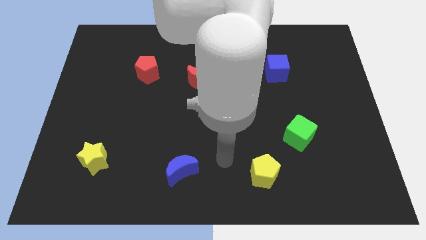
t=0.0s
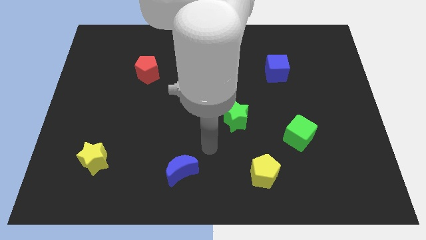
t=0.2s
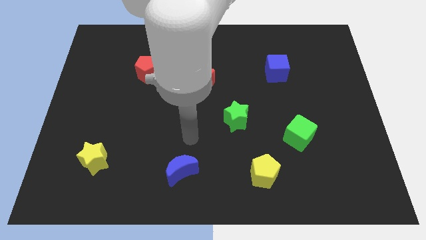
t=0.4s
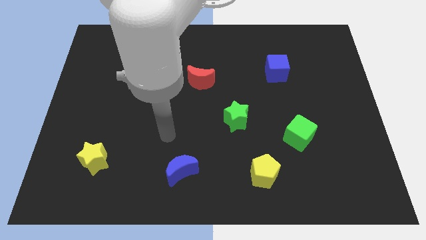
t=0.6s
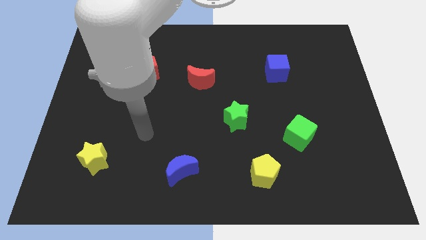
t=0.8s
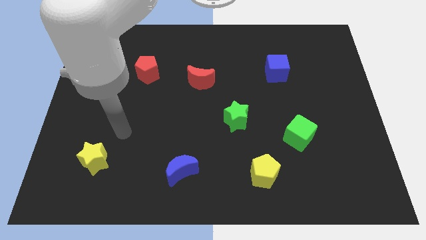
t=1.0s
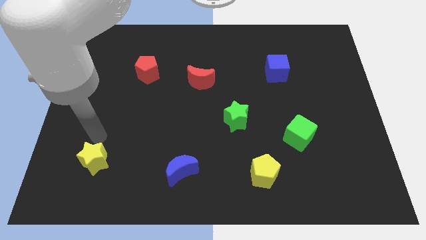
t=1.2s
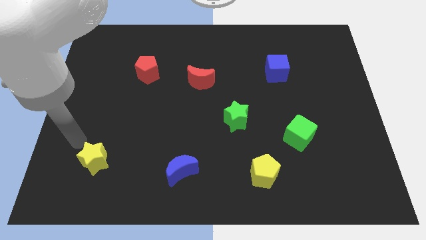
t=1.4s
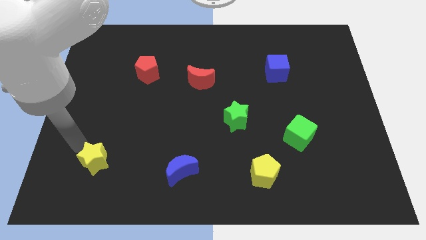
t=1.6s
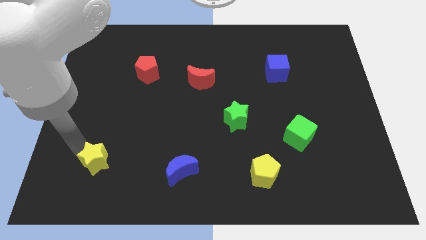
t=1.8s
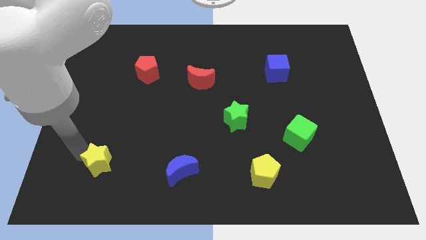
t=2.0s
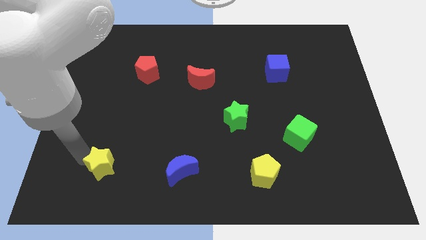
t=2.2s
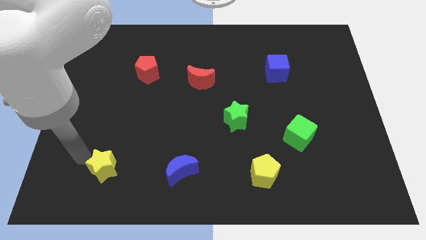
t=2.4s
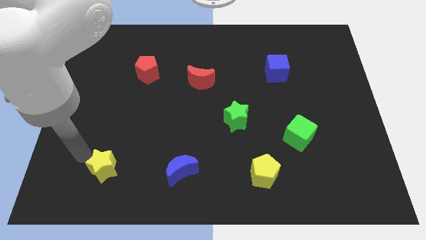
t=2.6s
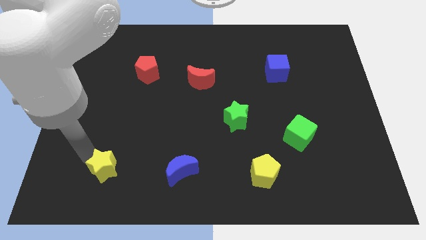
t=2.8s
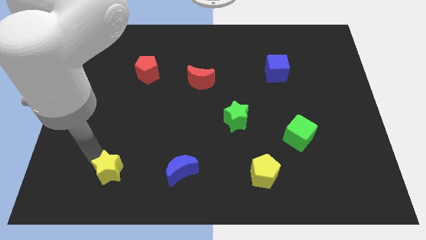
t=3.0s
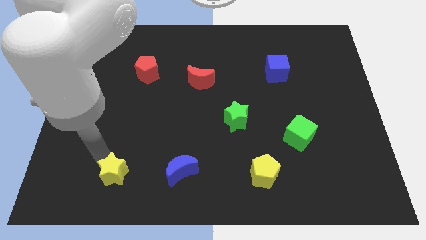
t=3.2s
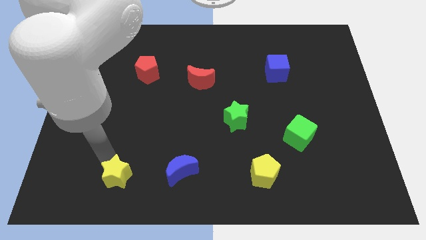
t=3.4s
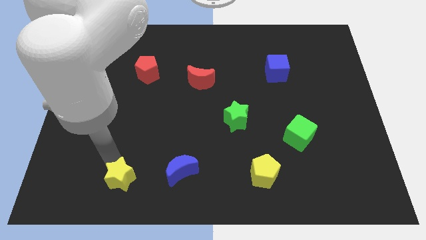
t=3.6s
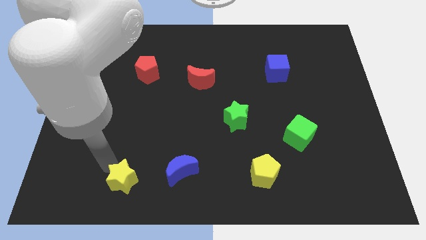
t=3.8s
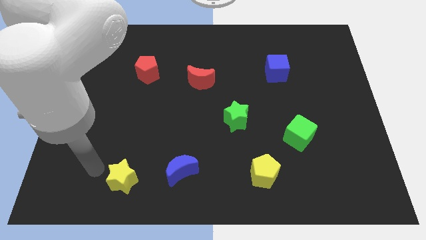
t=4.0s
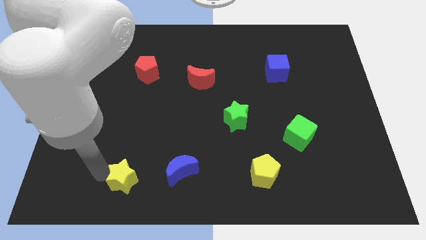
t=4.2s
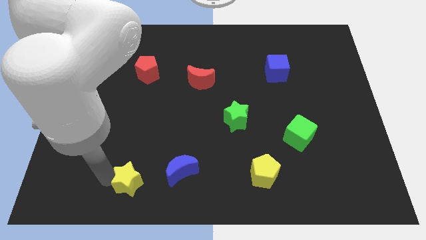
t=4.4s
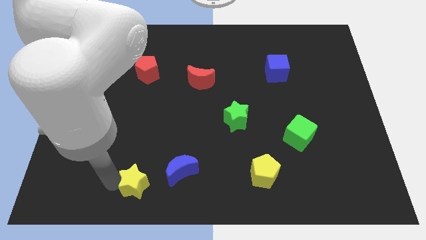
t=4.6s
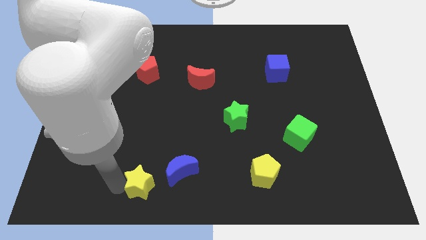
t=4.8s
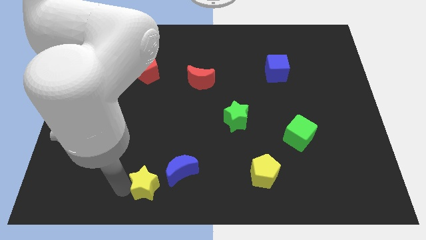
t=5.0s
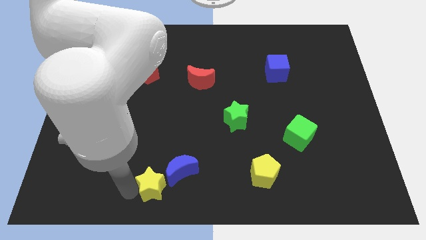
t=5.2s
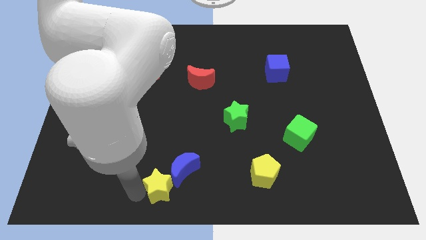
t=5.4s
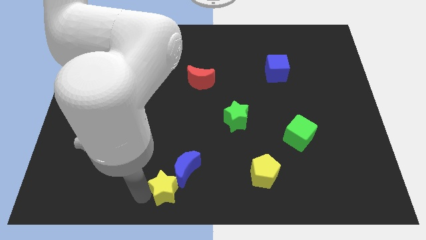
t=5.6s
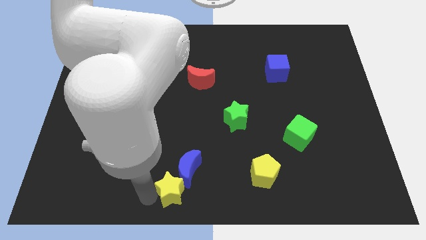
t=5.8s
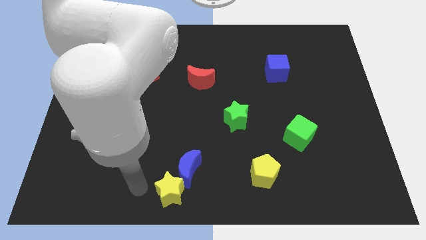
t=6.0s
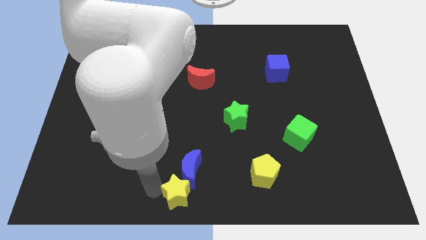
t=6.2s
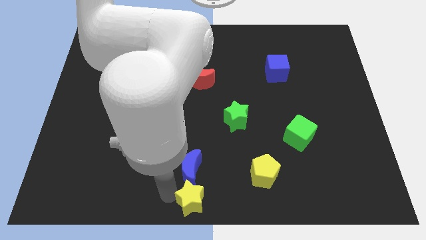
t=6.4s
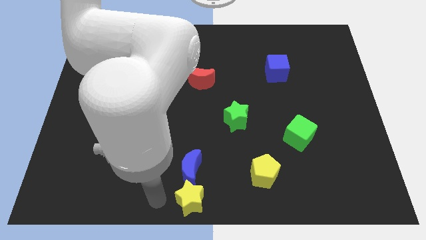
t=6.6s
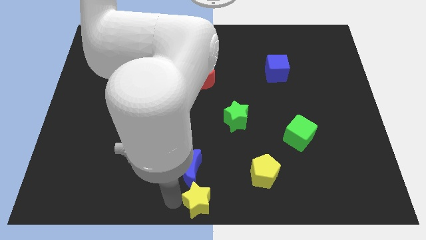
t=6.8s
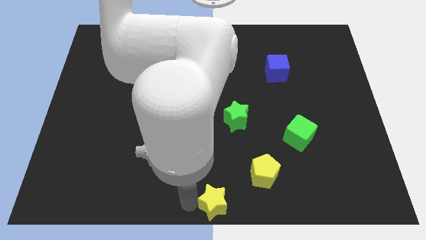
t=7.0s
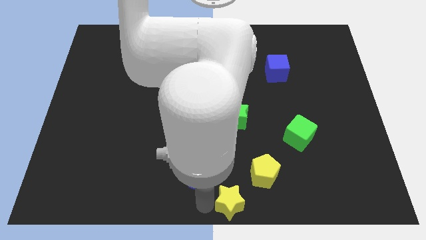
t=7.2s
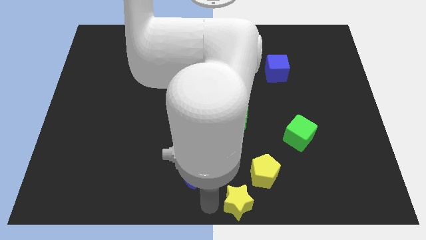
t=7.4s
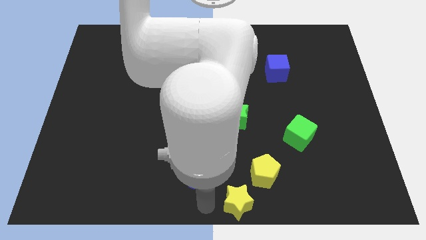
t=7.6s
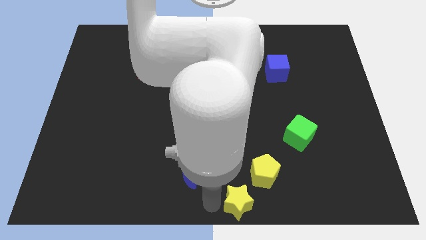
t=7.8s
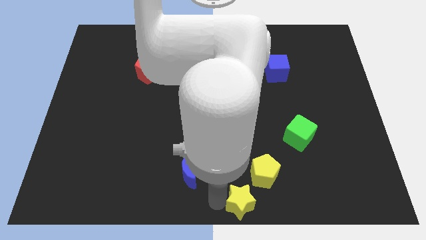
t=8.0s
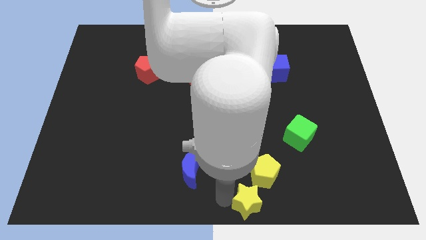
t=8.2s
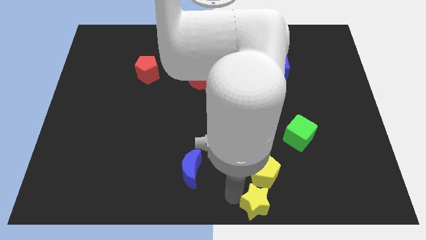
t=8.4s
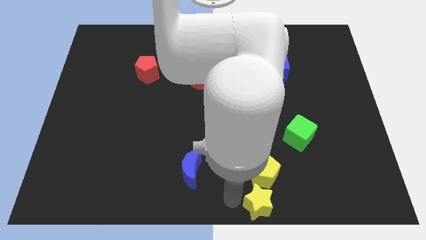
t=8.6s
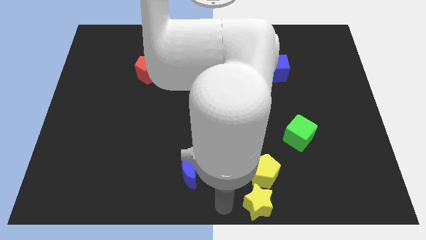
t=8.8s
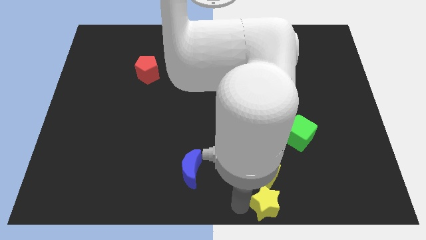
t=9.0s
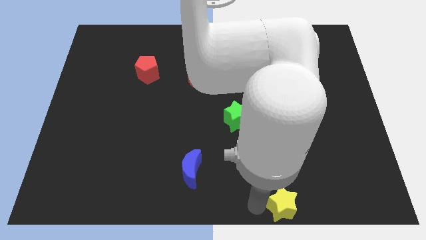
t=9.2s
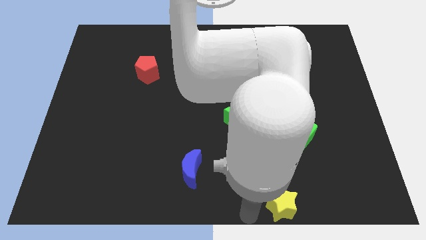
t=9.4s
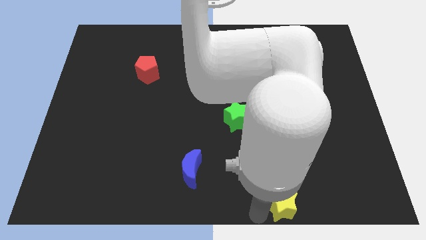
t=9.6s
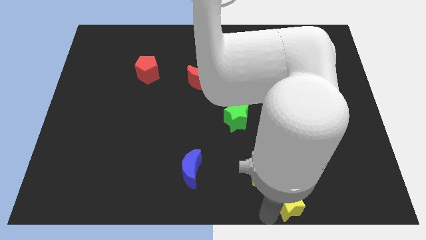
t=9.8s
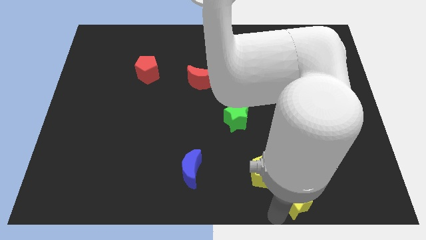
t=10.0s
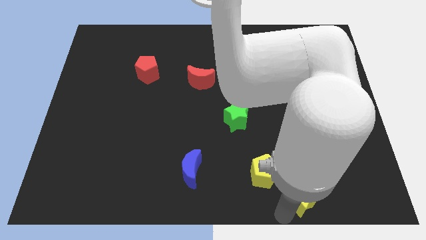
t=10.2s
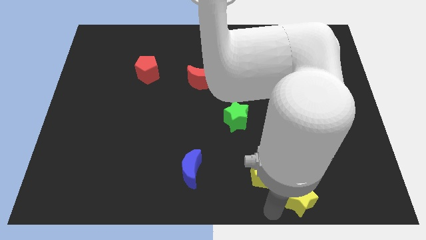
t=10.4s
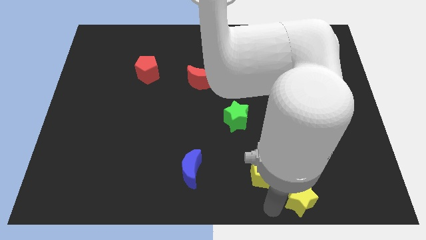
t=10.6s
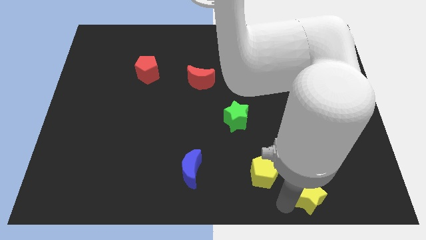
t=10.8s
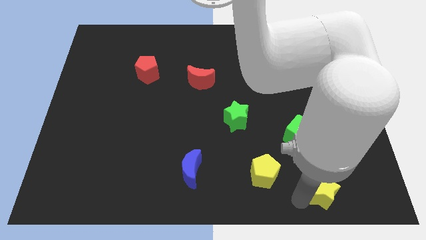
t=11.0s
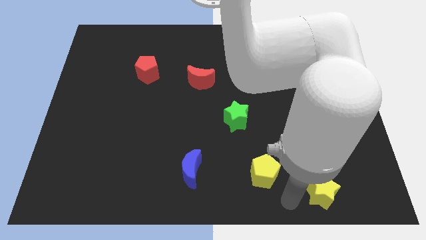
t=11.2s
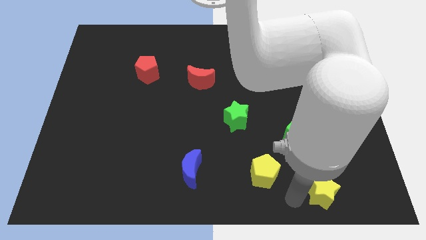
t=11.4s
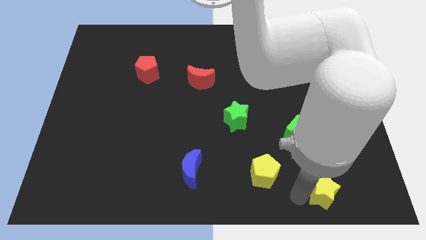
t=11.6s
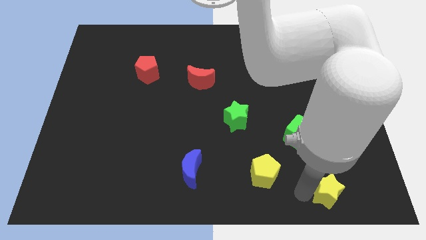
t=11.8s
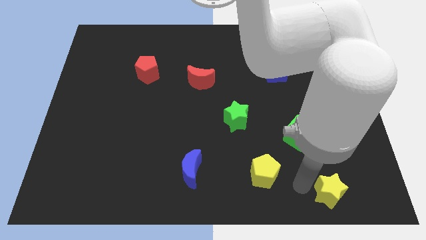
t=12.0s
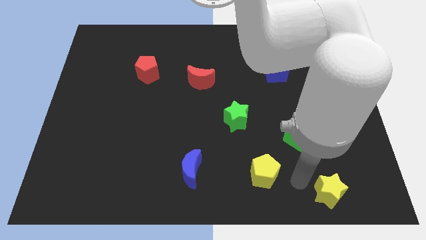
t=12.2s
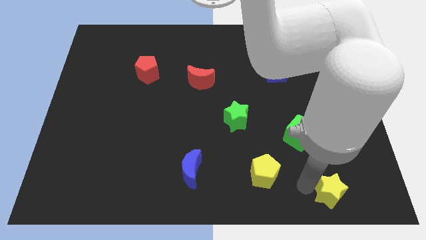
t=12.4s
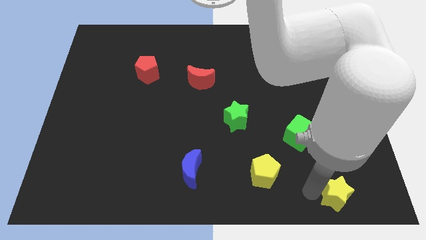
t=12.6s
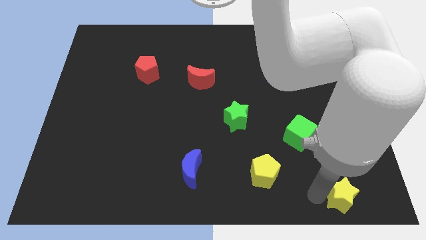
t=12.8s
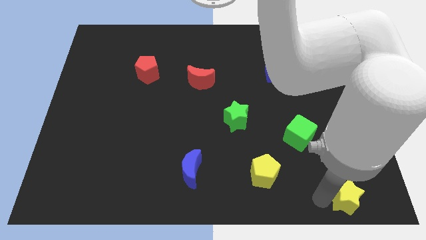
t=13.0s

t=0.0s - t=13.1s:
slide the yellow star to the lower right corner
